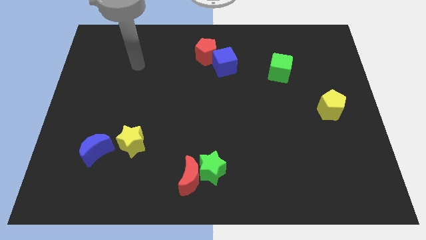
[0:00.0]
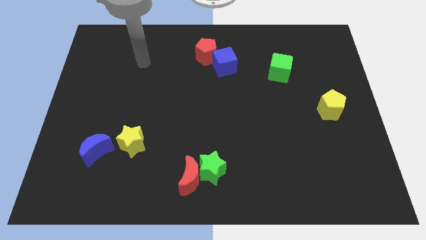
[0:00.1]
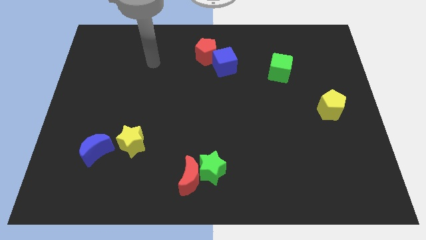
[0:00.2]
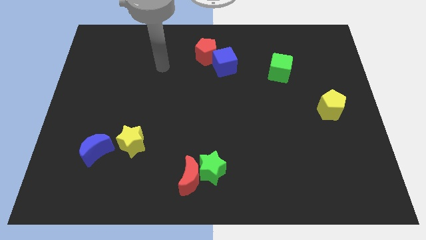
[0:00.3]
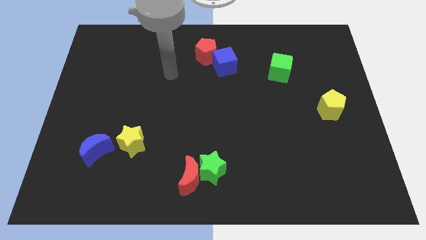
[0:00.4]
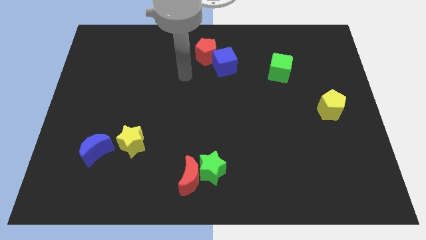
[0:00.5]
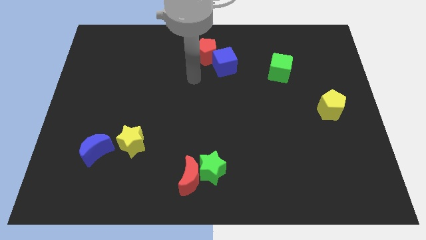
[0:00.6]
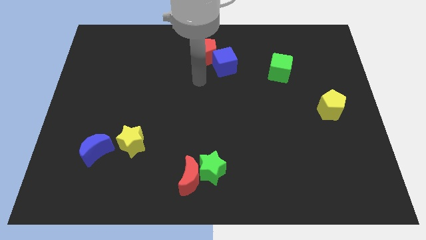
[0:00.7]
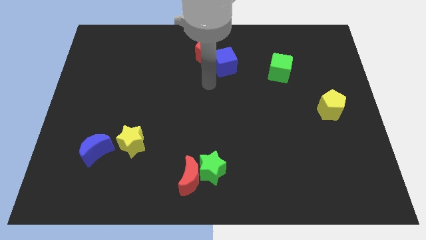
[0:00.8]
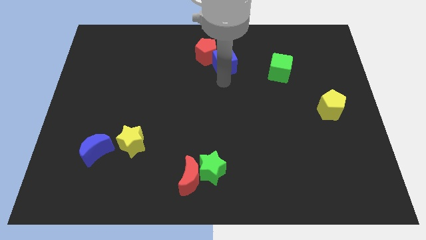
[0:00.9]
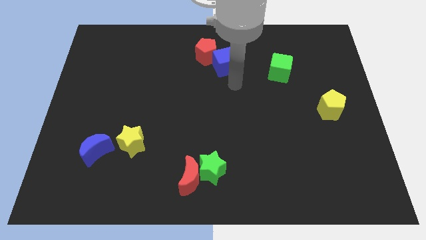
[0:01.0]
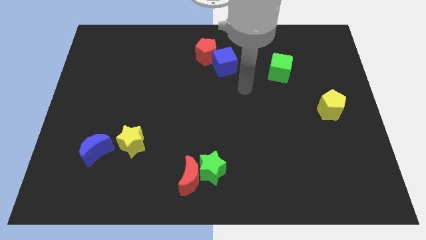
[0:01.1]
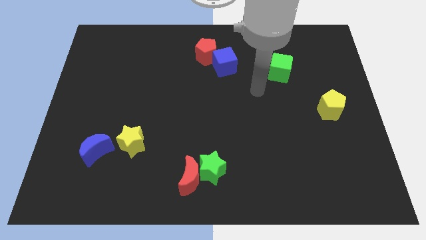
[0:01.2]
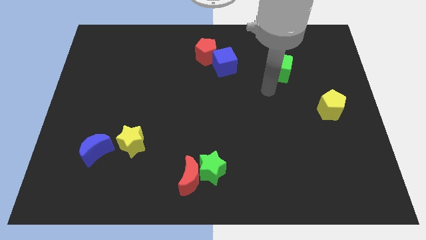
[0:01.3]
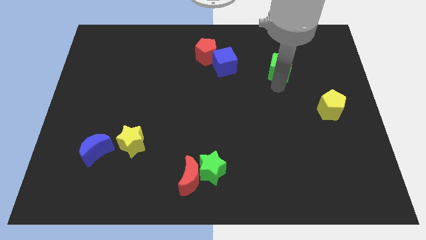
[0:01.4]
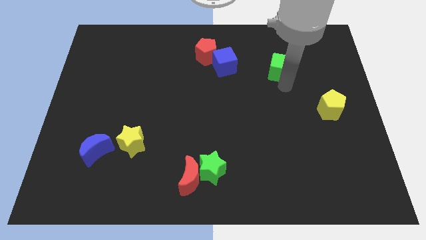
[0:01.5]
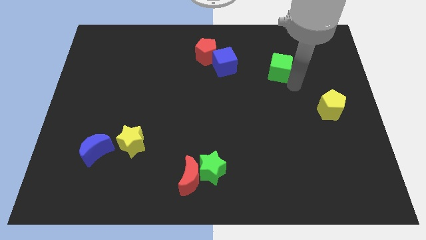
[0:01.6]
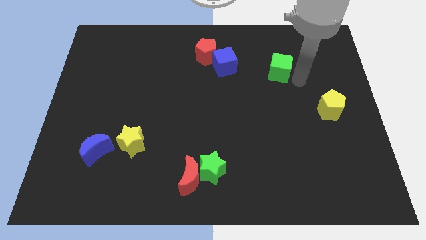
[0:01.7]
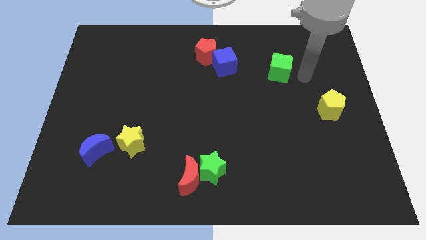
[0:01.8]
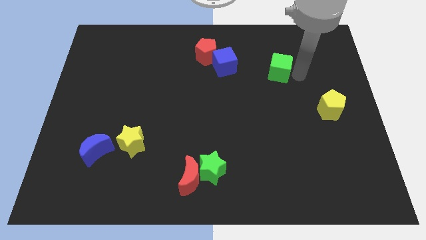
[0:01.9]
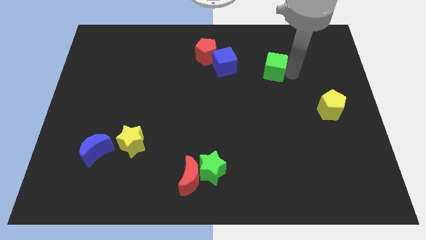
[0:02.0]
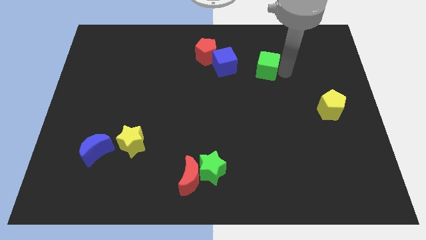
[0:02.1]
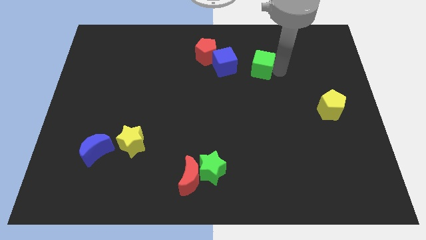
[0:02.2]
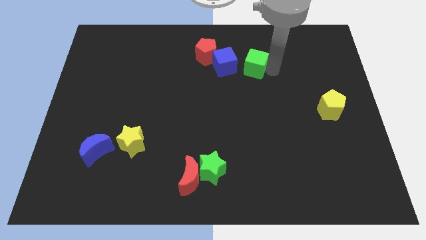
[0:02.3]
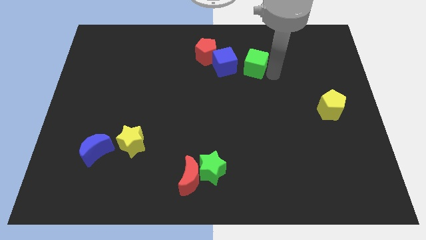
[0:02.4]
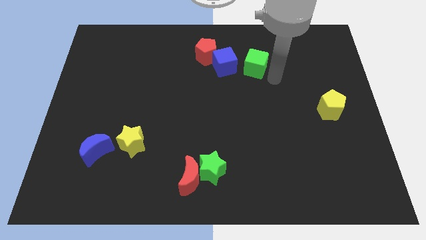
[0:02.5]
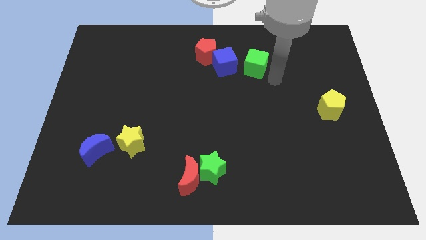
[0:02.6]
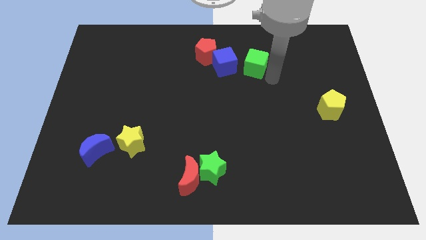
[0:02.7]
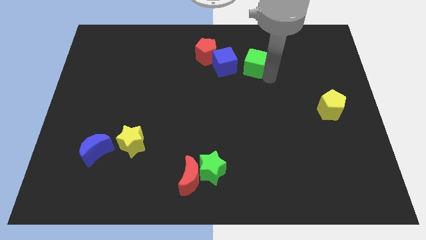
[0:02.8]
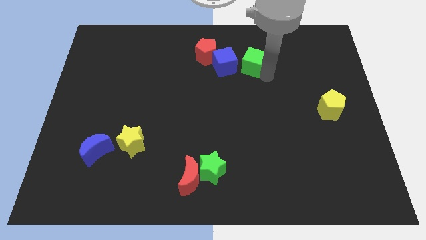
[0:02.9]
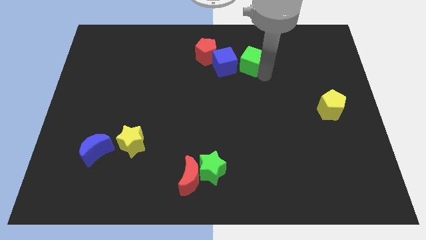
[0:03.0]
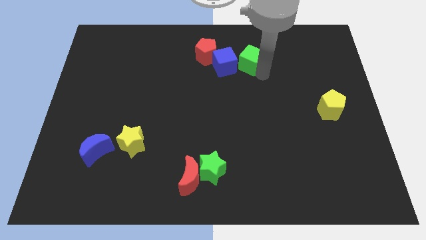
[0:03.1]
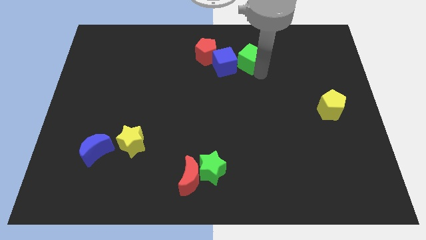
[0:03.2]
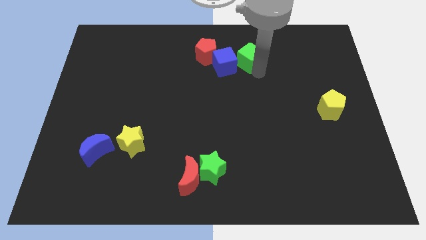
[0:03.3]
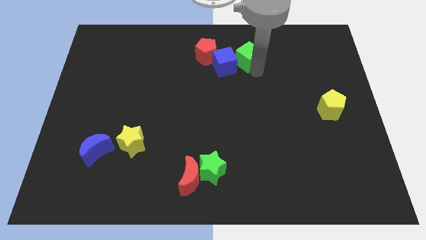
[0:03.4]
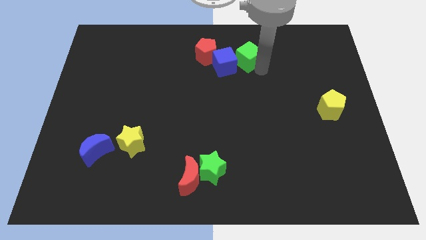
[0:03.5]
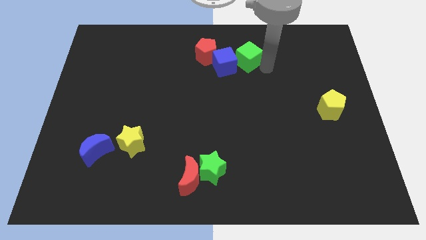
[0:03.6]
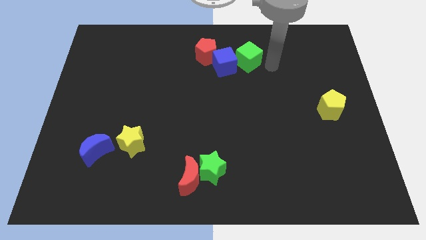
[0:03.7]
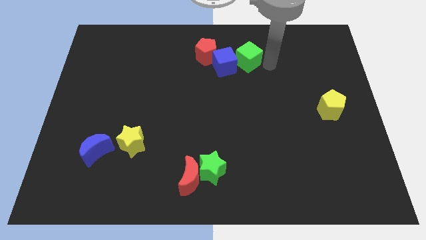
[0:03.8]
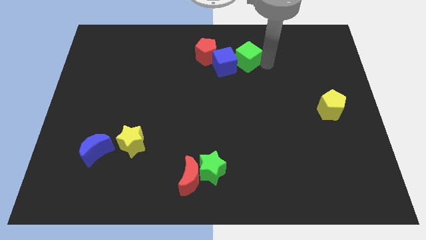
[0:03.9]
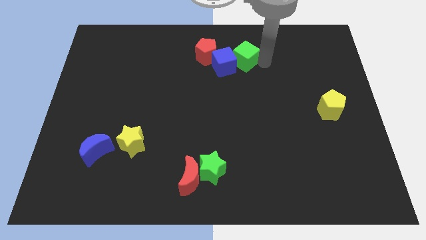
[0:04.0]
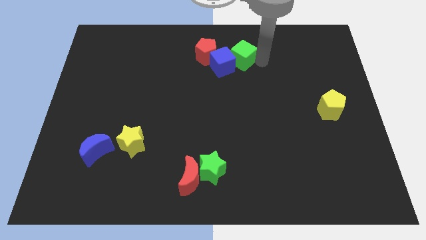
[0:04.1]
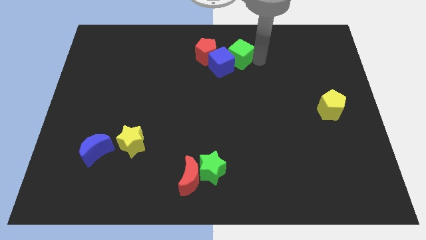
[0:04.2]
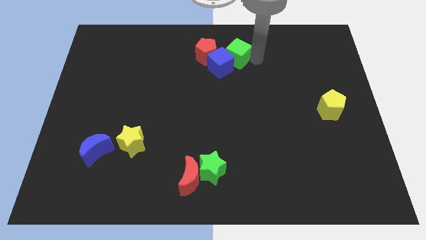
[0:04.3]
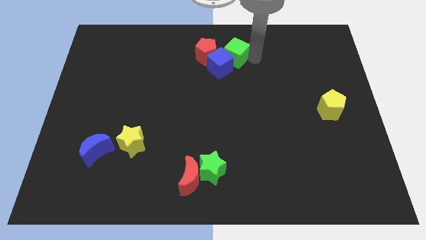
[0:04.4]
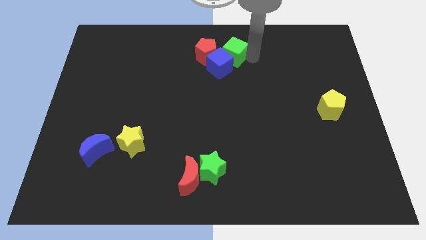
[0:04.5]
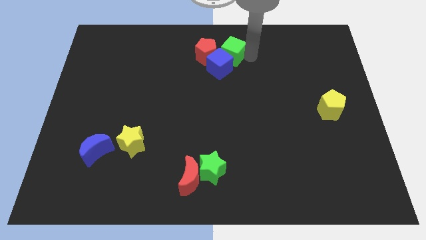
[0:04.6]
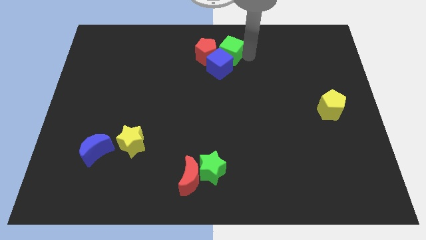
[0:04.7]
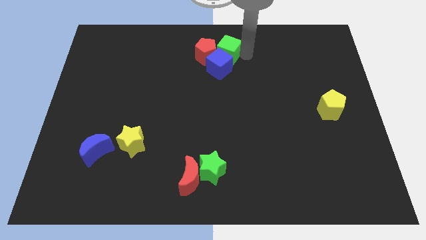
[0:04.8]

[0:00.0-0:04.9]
push the green cube to the red pentagon

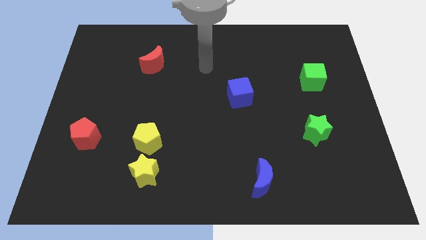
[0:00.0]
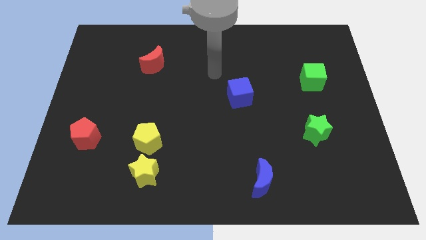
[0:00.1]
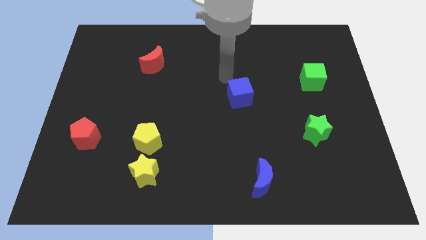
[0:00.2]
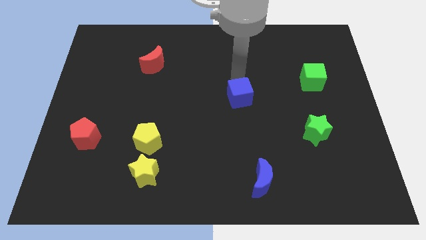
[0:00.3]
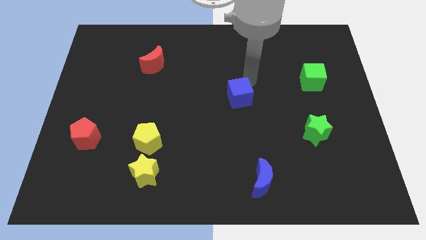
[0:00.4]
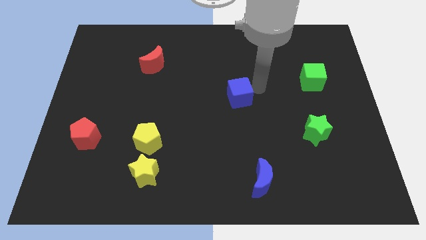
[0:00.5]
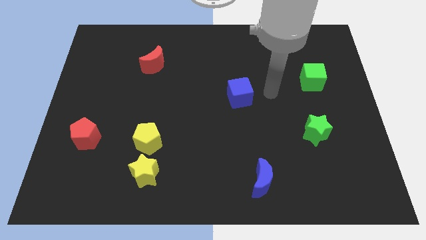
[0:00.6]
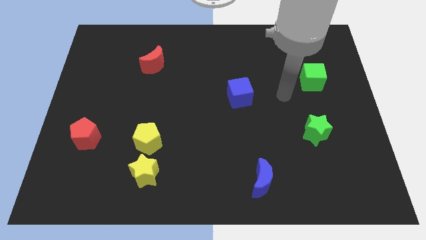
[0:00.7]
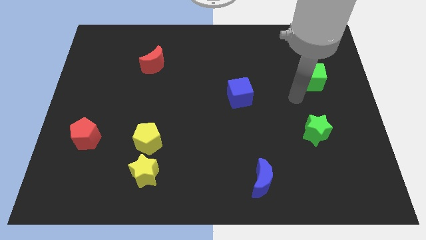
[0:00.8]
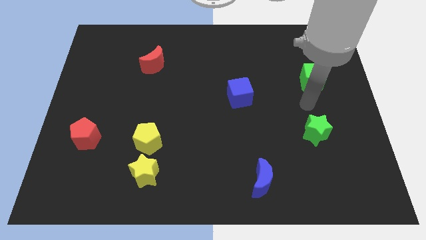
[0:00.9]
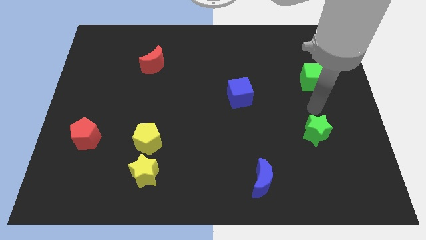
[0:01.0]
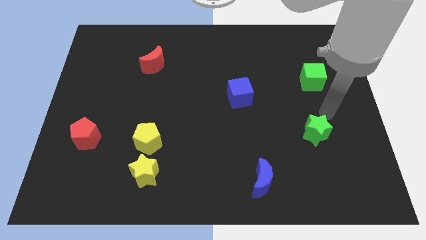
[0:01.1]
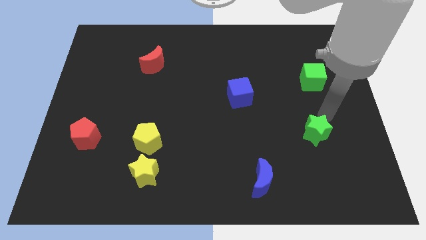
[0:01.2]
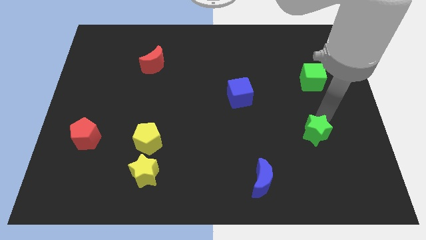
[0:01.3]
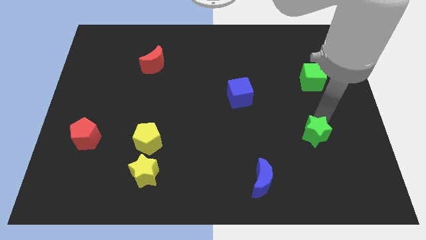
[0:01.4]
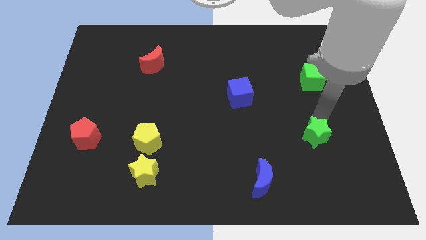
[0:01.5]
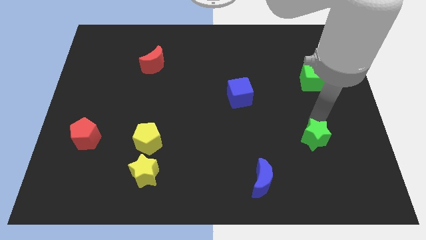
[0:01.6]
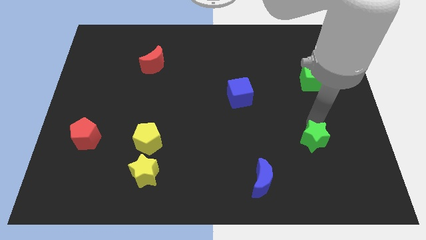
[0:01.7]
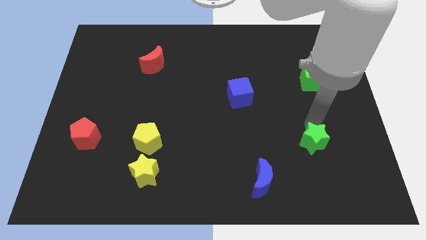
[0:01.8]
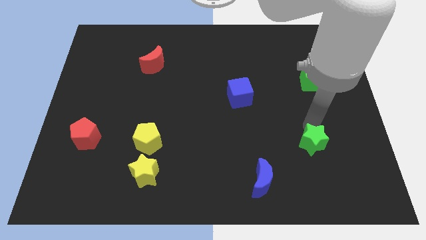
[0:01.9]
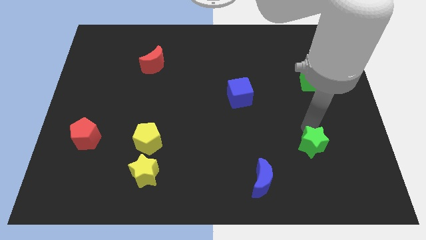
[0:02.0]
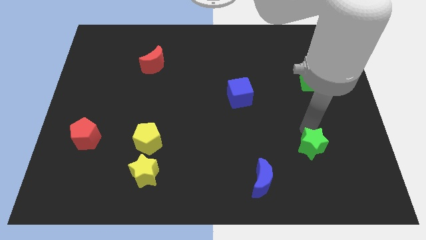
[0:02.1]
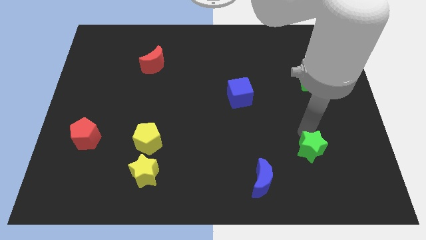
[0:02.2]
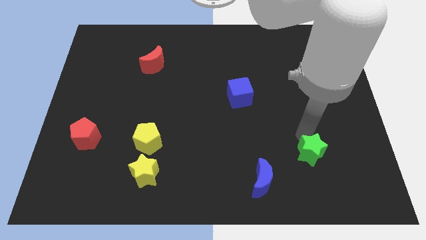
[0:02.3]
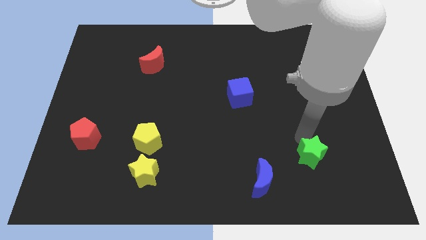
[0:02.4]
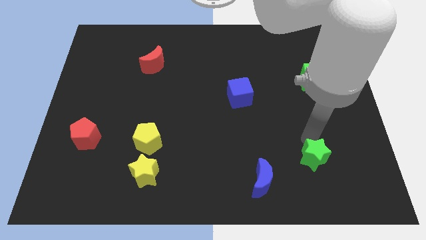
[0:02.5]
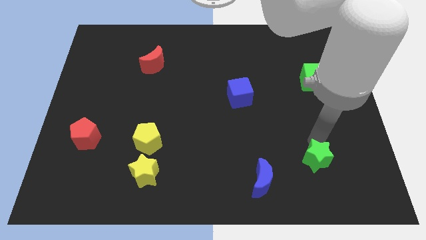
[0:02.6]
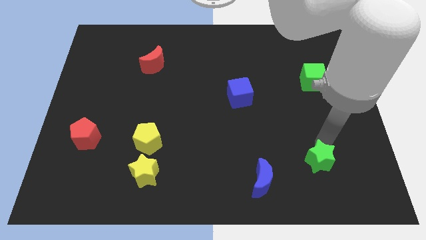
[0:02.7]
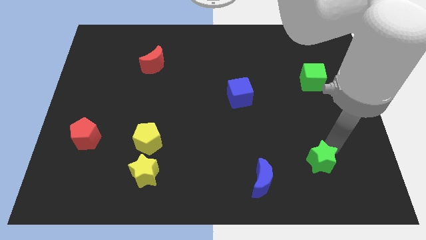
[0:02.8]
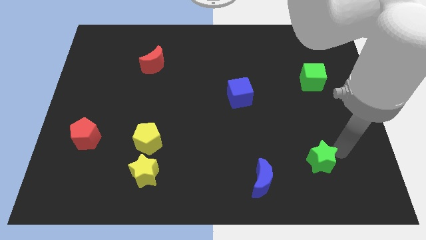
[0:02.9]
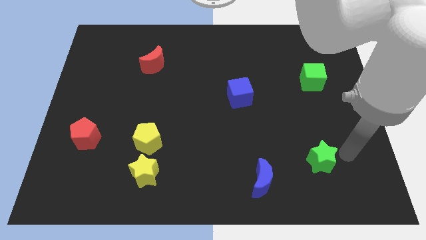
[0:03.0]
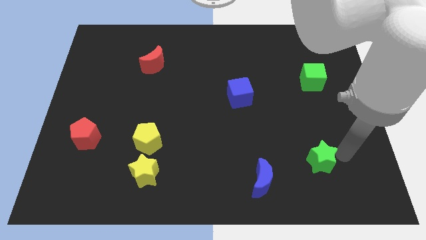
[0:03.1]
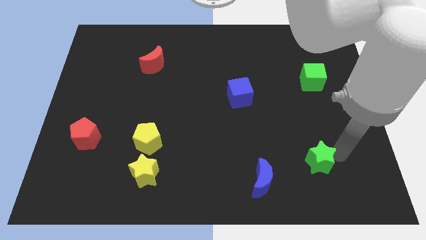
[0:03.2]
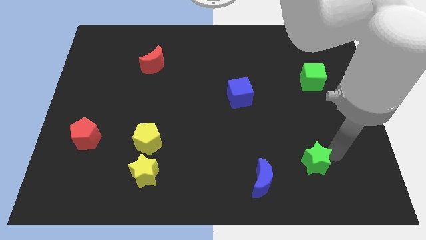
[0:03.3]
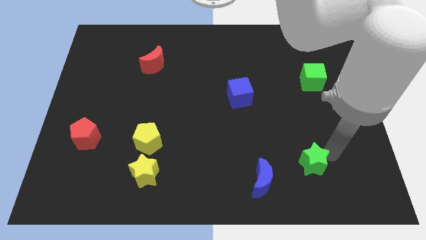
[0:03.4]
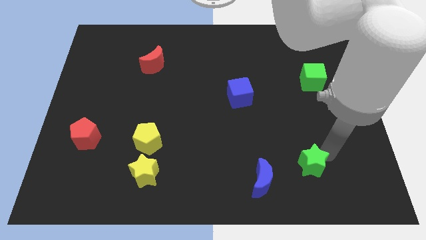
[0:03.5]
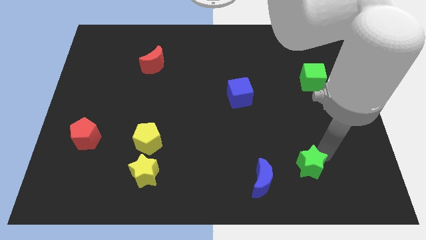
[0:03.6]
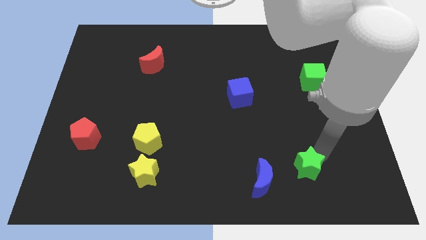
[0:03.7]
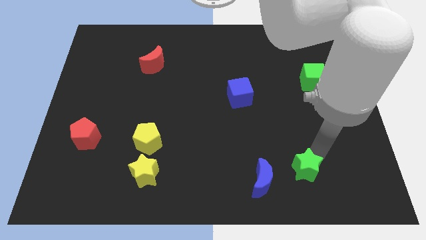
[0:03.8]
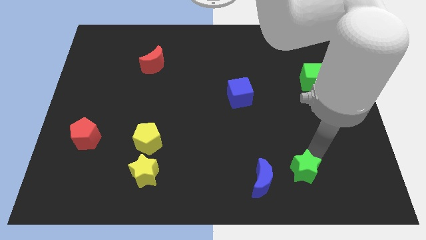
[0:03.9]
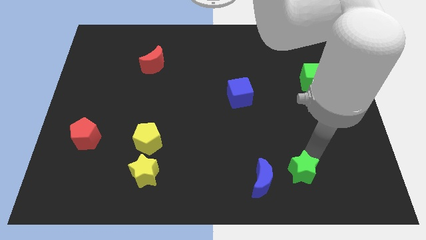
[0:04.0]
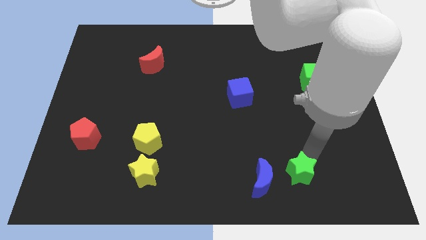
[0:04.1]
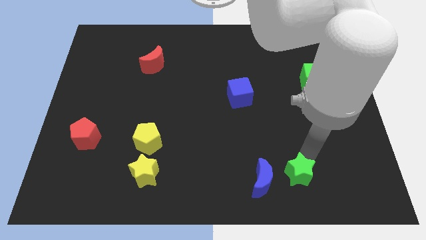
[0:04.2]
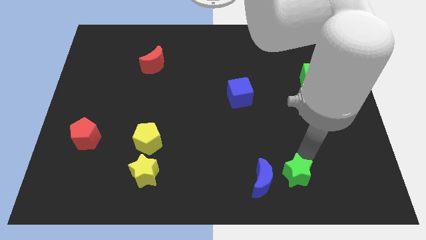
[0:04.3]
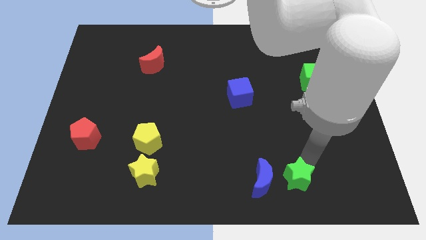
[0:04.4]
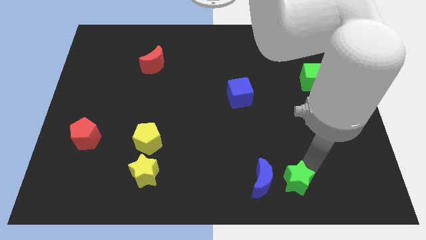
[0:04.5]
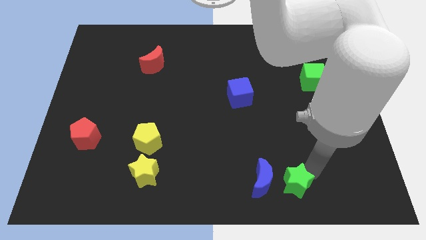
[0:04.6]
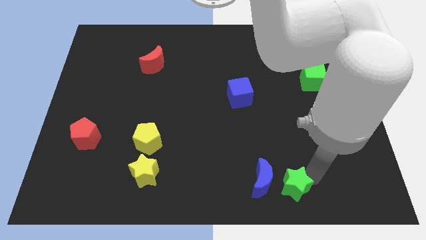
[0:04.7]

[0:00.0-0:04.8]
slide the green star close to the blue moon
